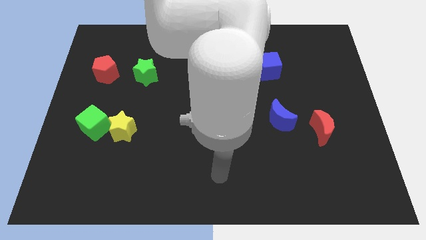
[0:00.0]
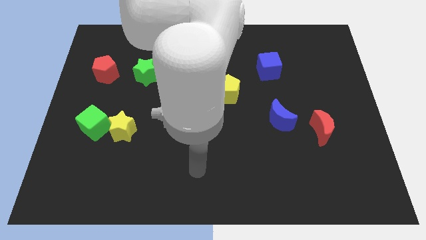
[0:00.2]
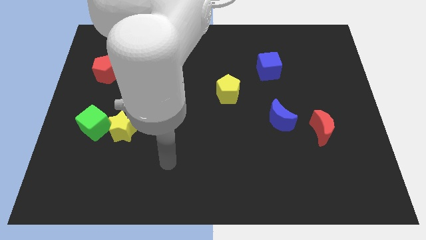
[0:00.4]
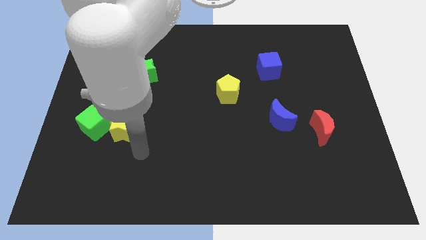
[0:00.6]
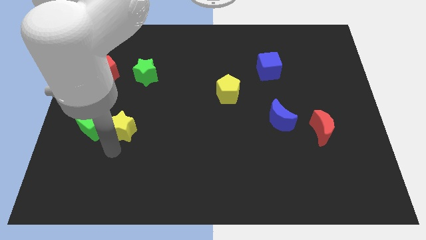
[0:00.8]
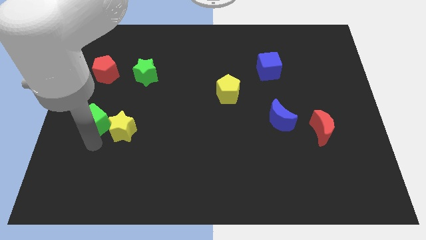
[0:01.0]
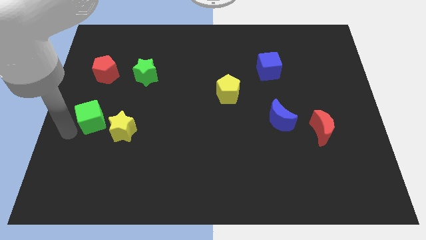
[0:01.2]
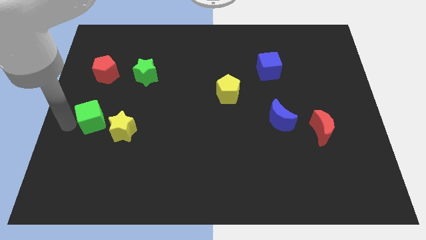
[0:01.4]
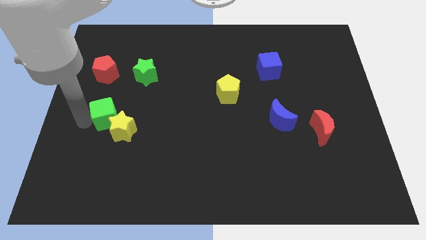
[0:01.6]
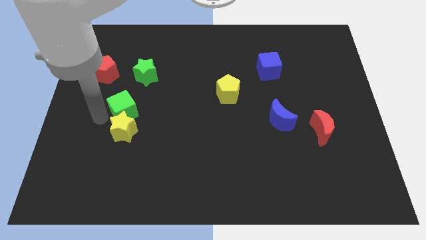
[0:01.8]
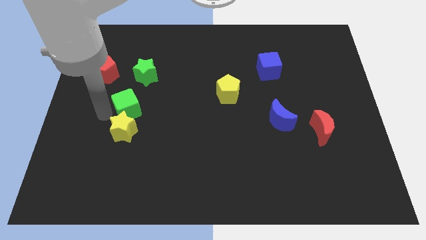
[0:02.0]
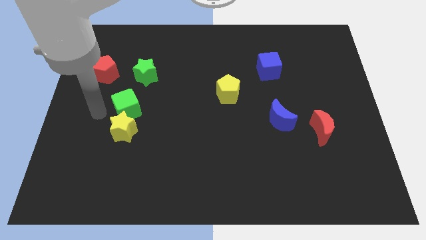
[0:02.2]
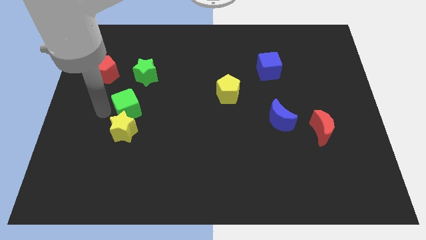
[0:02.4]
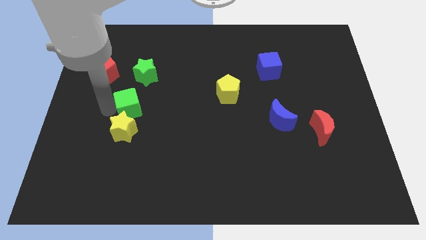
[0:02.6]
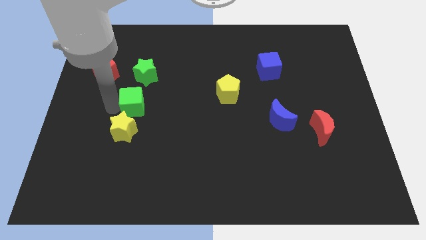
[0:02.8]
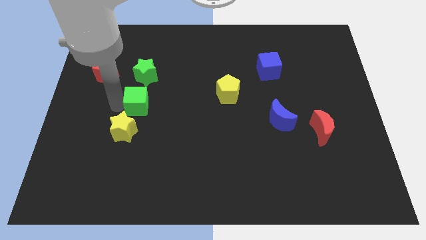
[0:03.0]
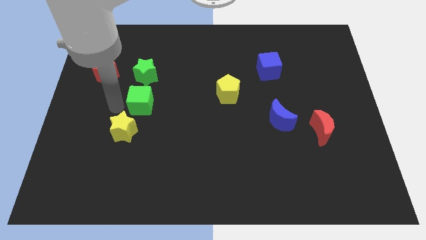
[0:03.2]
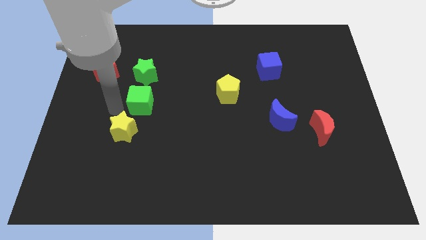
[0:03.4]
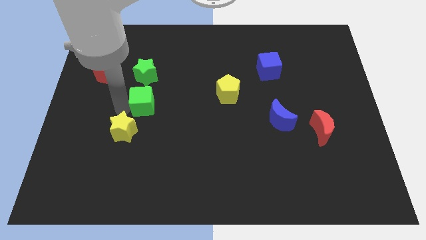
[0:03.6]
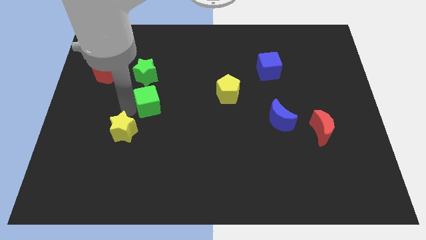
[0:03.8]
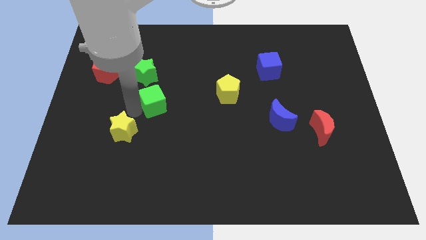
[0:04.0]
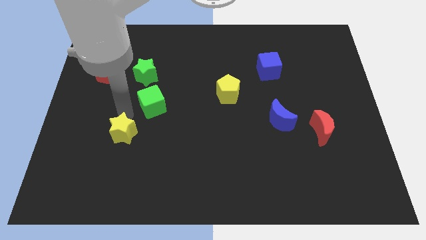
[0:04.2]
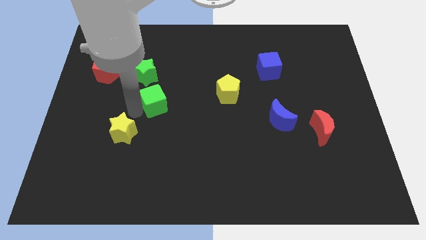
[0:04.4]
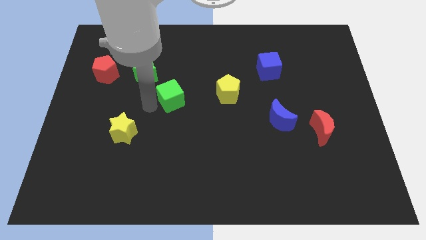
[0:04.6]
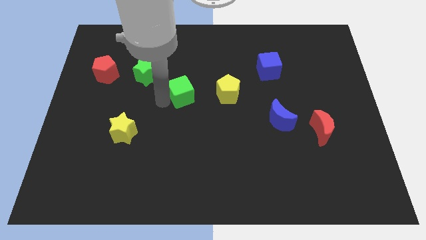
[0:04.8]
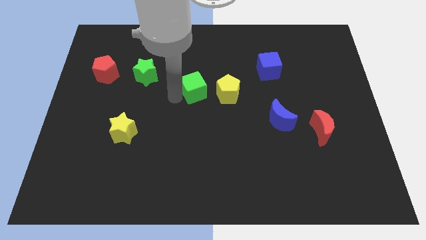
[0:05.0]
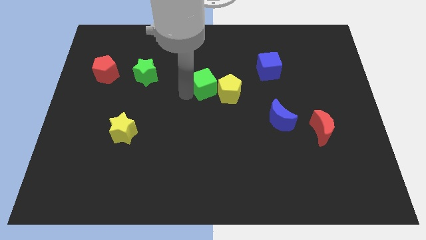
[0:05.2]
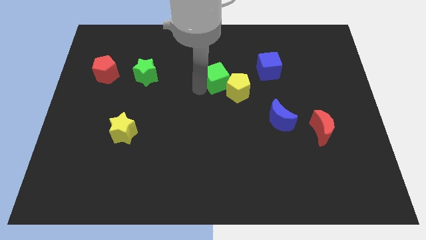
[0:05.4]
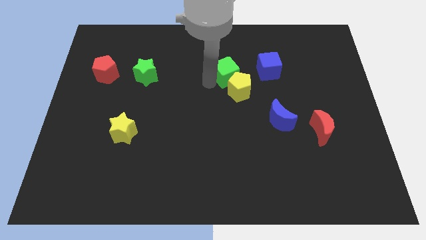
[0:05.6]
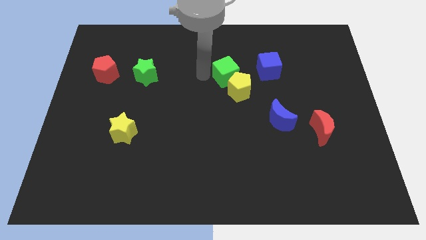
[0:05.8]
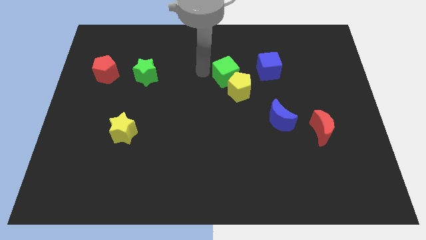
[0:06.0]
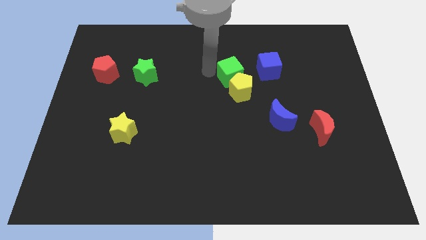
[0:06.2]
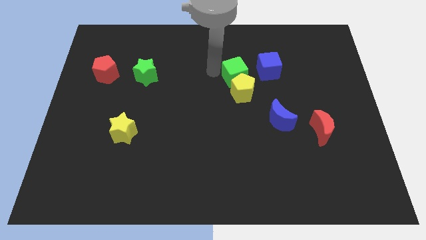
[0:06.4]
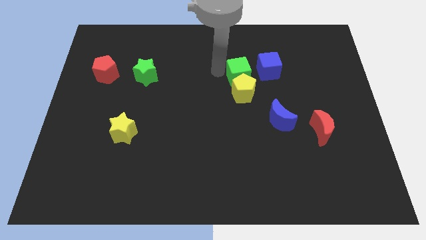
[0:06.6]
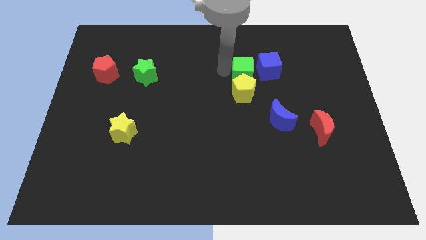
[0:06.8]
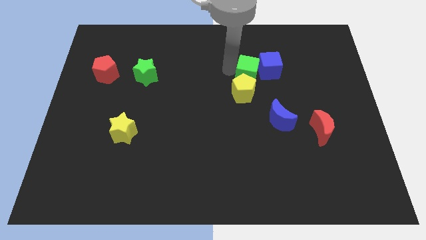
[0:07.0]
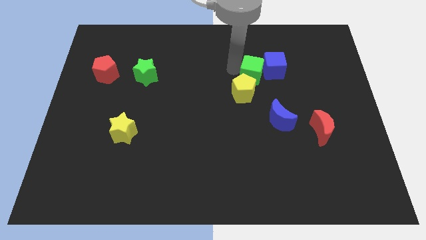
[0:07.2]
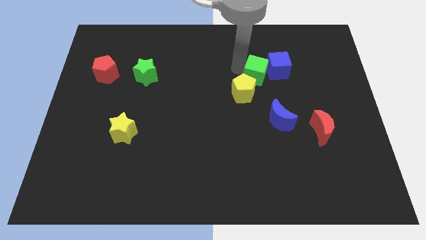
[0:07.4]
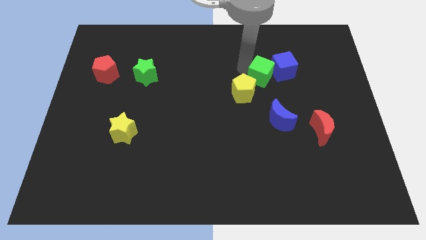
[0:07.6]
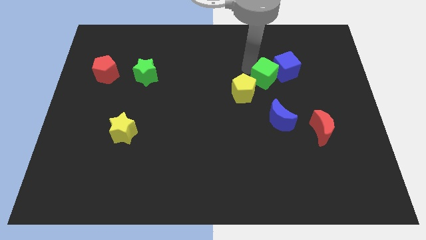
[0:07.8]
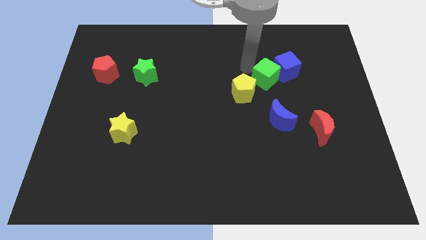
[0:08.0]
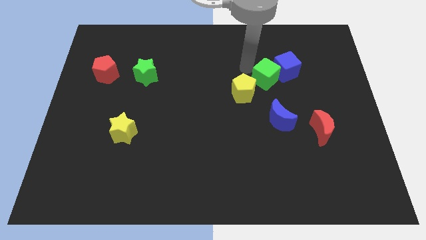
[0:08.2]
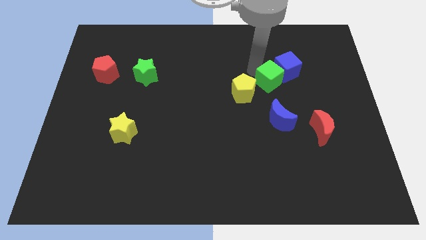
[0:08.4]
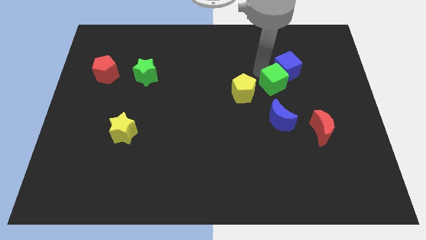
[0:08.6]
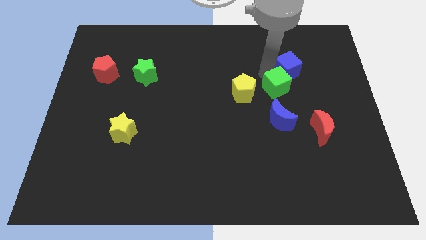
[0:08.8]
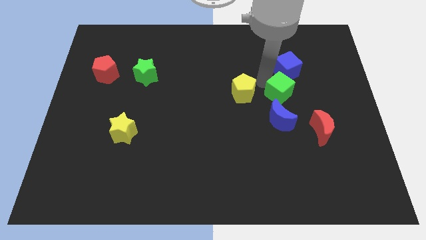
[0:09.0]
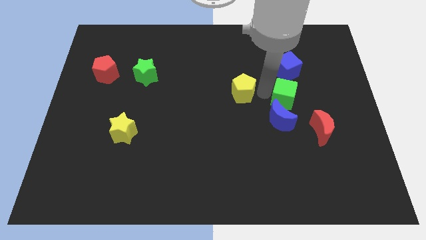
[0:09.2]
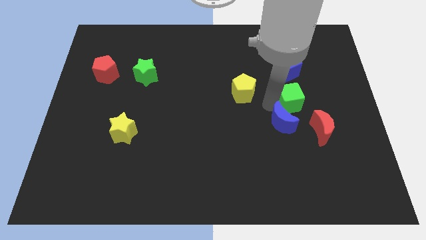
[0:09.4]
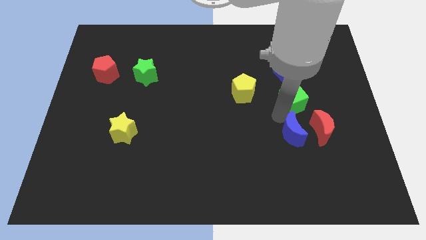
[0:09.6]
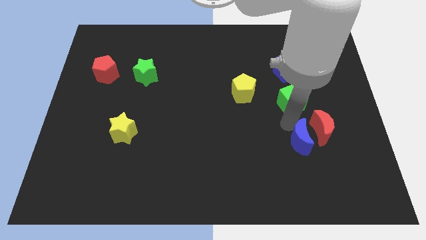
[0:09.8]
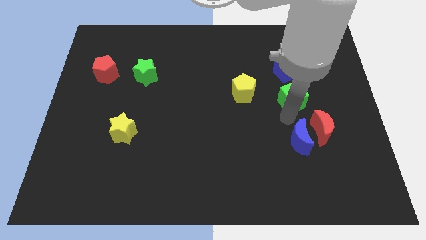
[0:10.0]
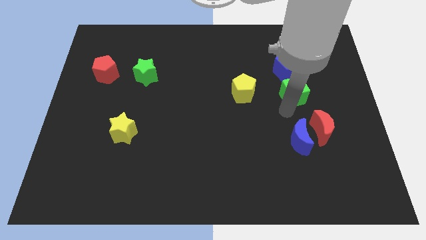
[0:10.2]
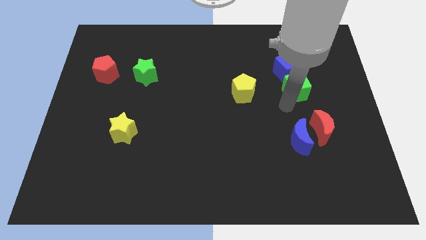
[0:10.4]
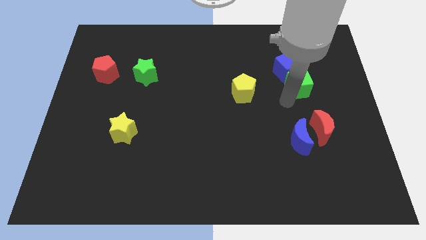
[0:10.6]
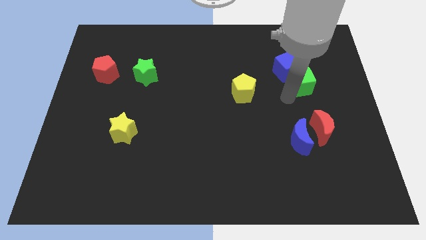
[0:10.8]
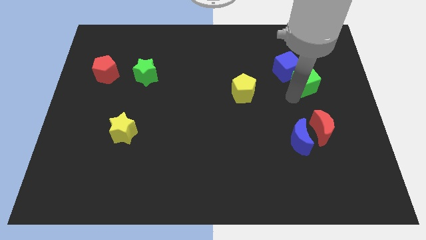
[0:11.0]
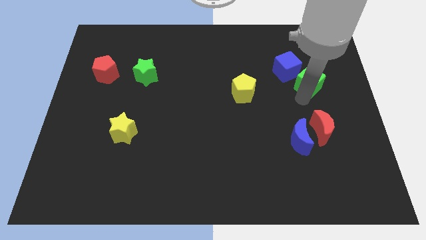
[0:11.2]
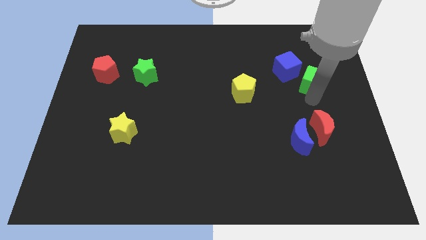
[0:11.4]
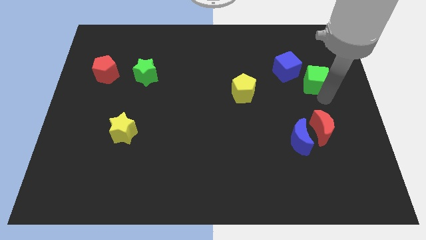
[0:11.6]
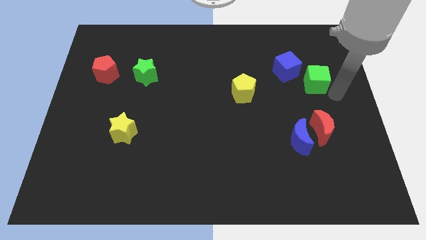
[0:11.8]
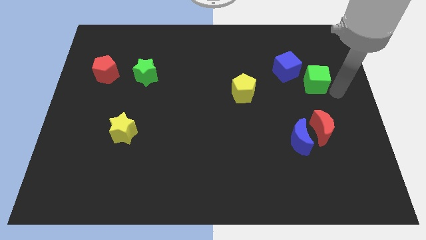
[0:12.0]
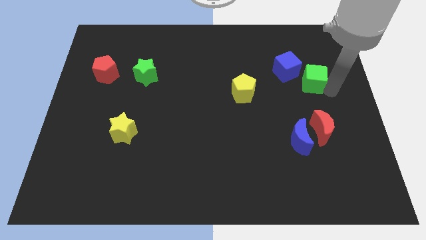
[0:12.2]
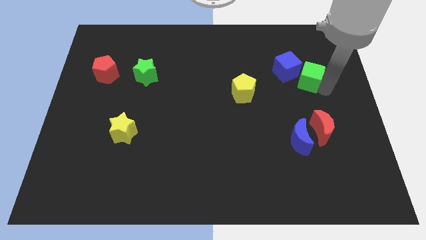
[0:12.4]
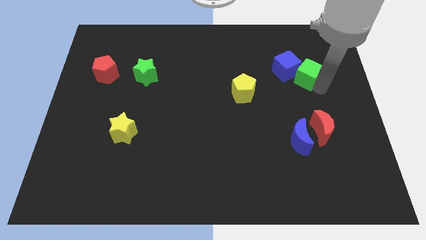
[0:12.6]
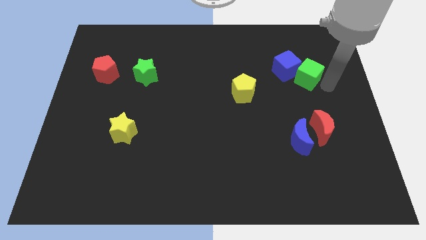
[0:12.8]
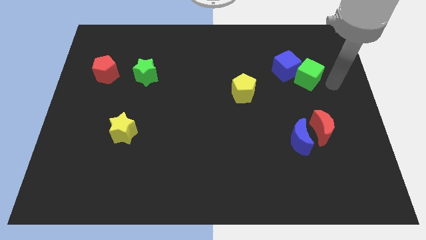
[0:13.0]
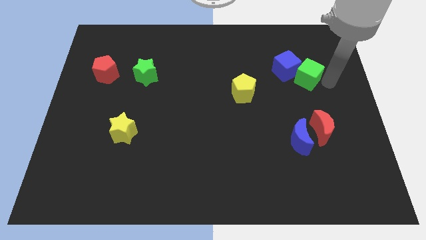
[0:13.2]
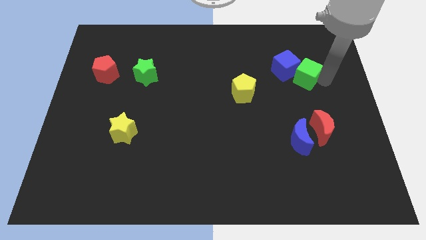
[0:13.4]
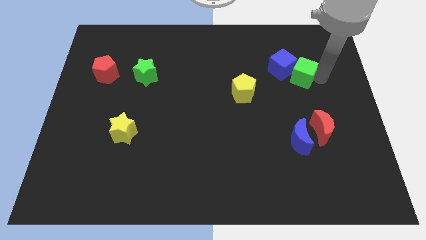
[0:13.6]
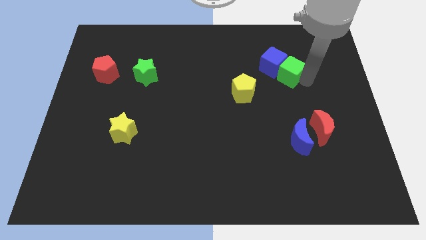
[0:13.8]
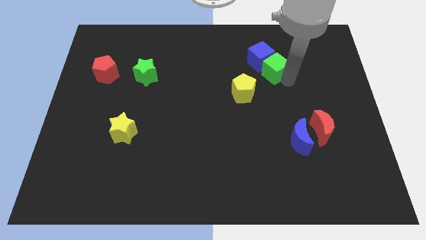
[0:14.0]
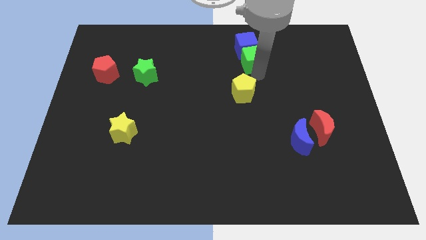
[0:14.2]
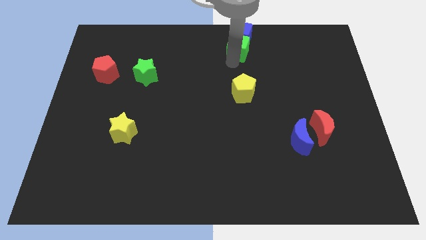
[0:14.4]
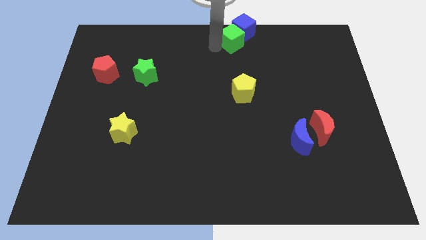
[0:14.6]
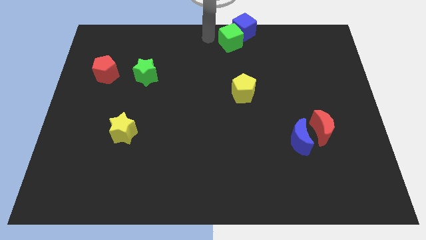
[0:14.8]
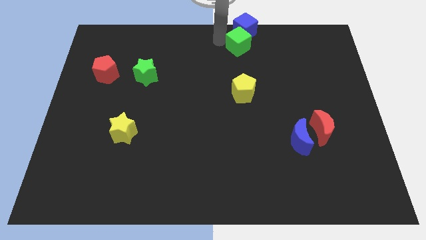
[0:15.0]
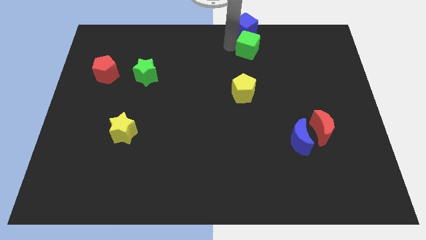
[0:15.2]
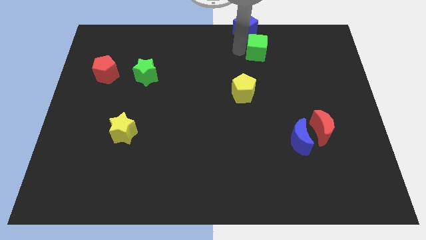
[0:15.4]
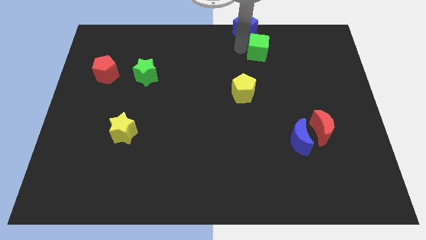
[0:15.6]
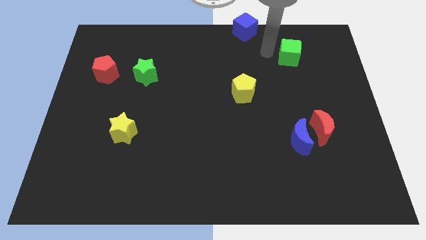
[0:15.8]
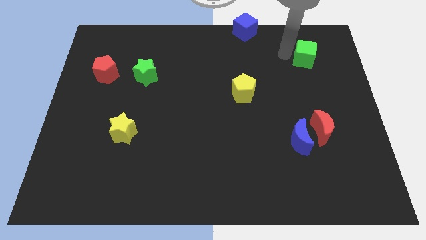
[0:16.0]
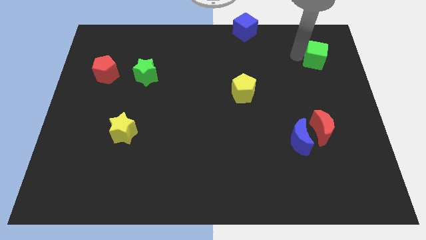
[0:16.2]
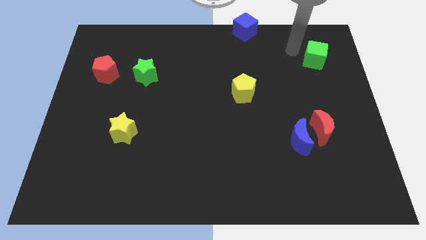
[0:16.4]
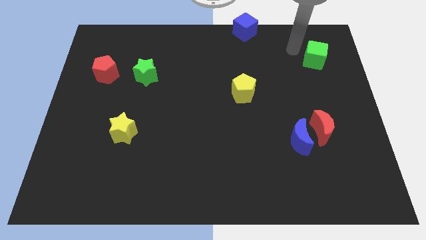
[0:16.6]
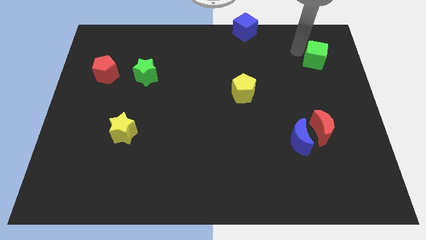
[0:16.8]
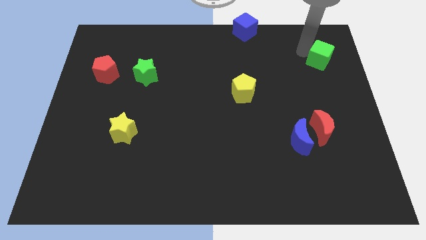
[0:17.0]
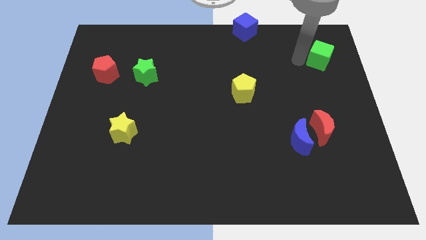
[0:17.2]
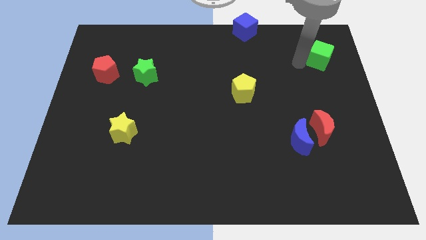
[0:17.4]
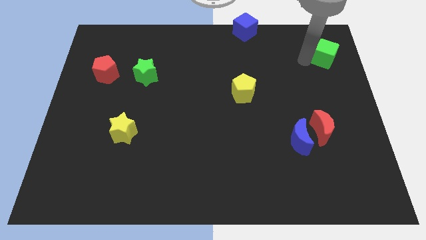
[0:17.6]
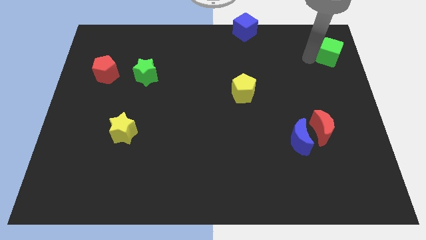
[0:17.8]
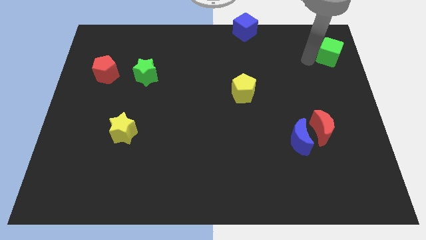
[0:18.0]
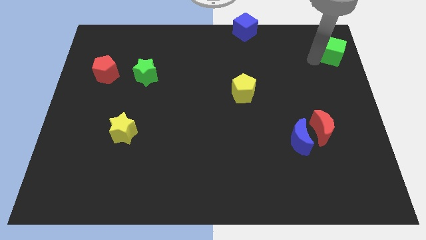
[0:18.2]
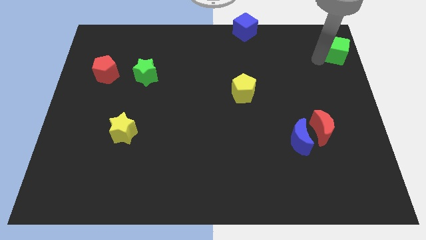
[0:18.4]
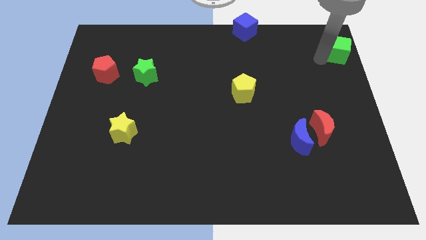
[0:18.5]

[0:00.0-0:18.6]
push the green cube to the top right of the board
